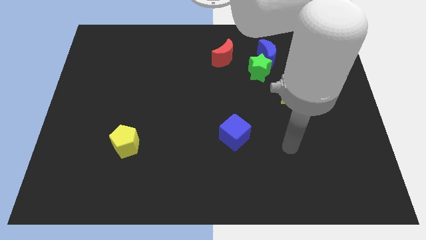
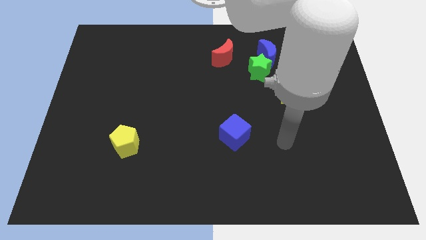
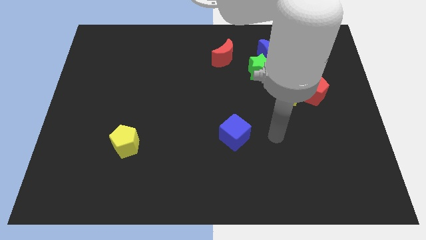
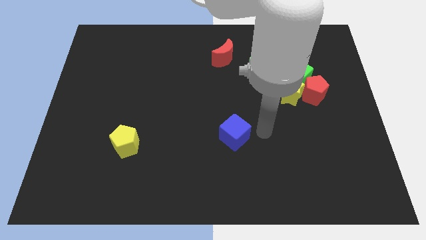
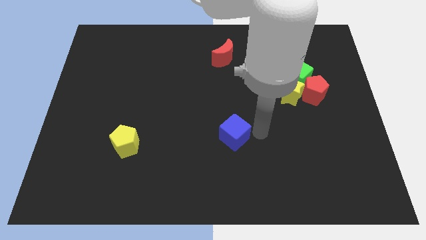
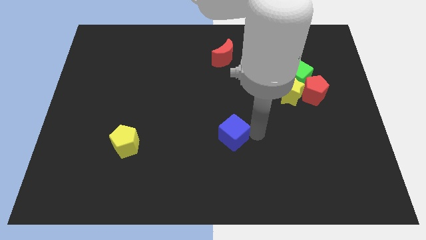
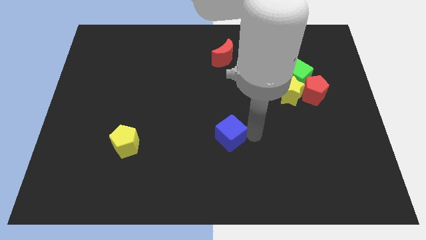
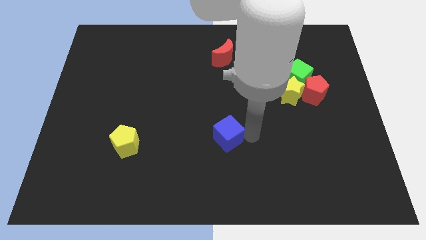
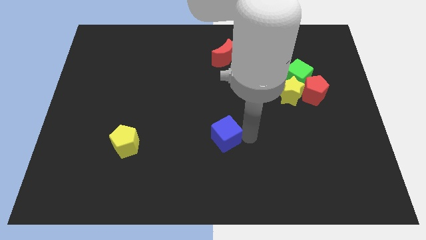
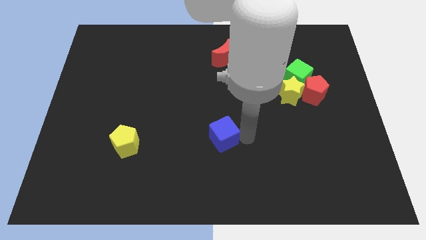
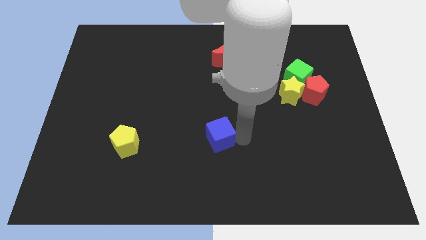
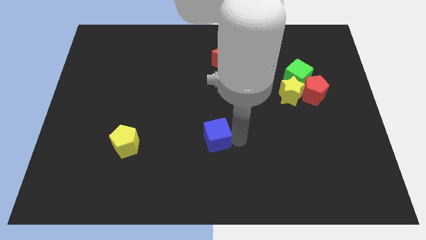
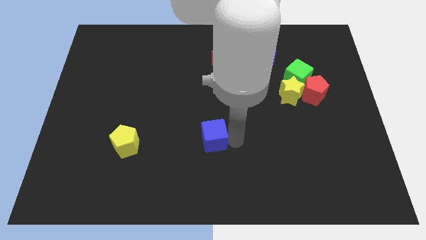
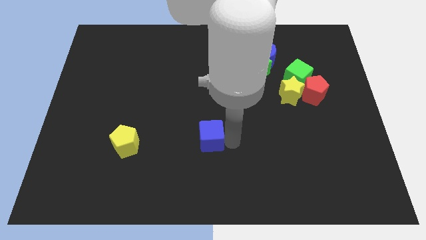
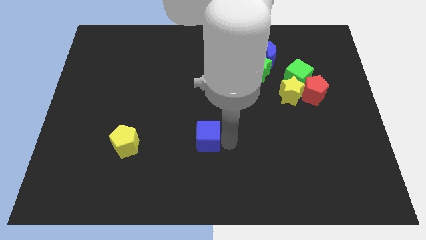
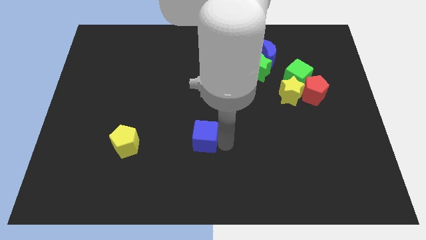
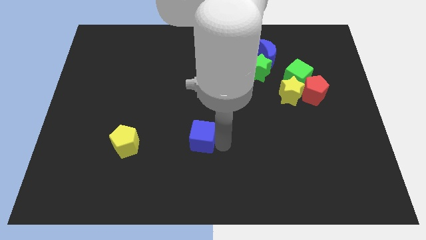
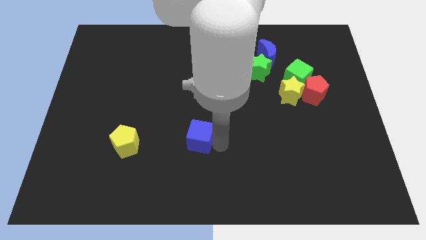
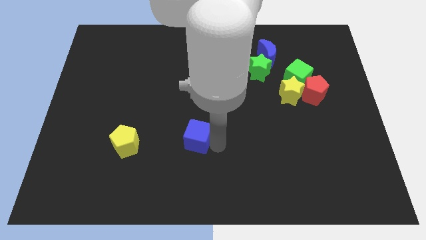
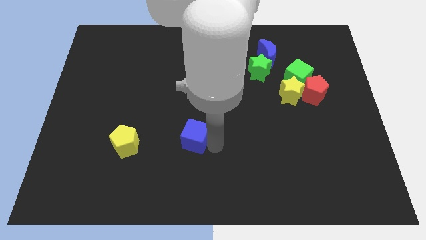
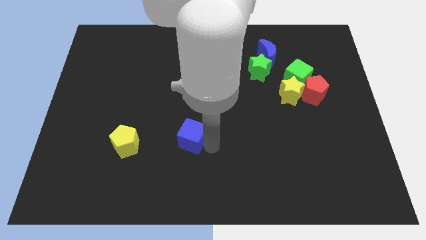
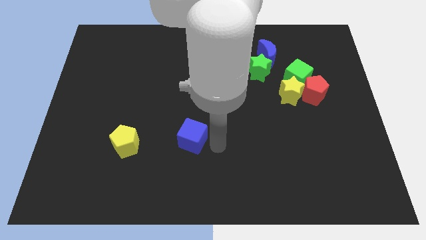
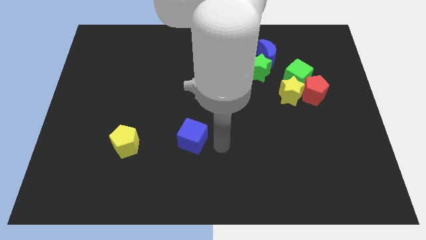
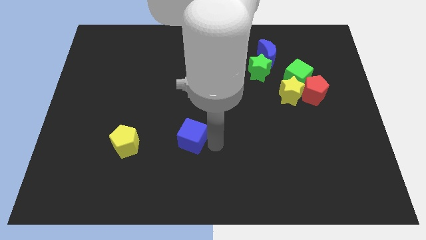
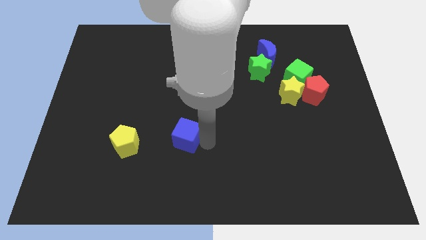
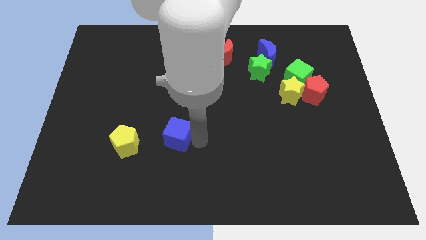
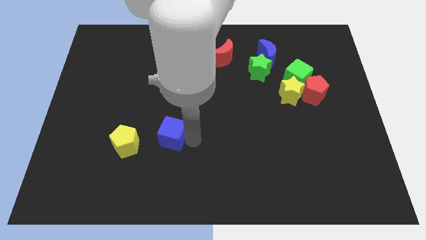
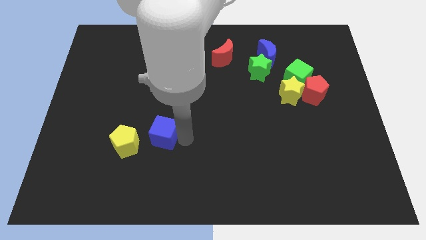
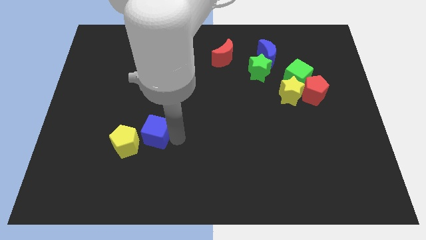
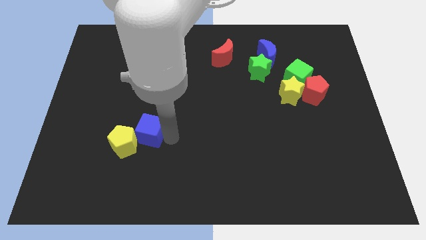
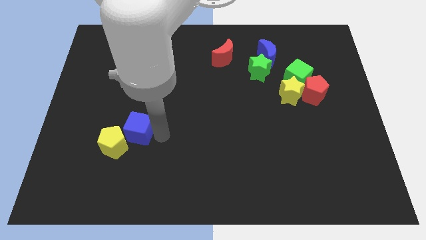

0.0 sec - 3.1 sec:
push the blue cube to the left

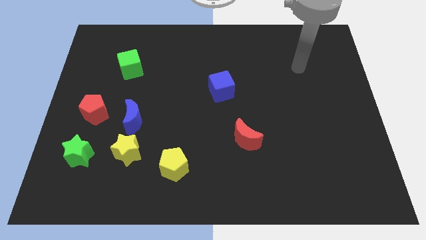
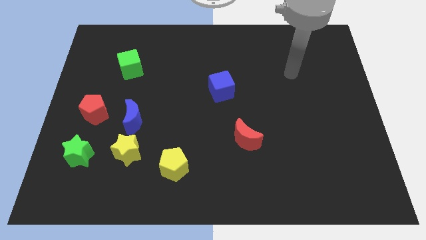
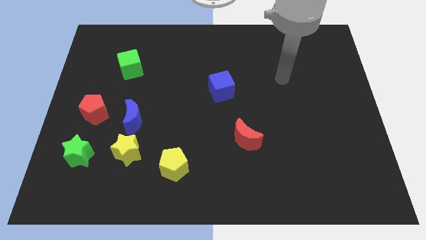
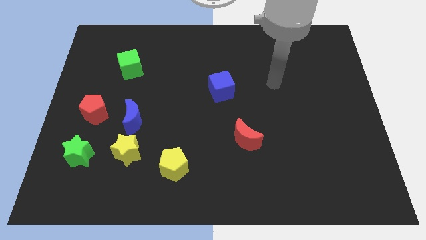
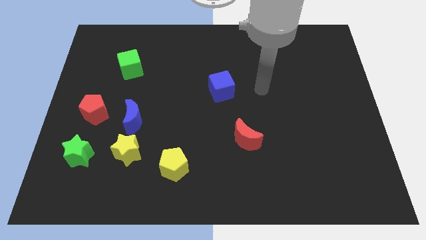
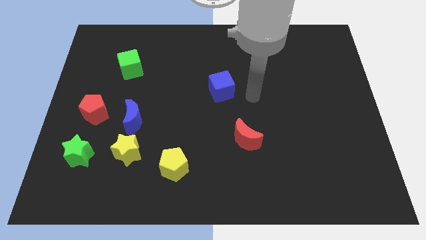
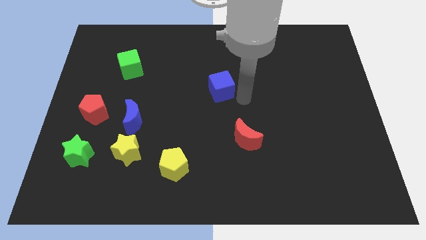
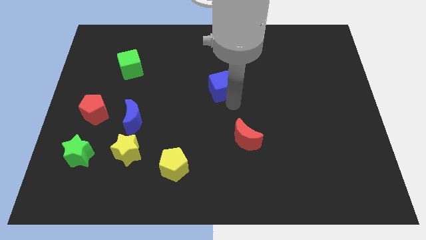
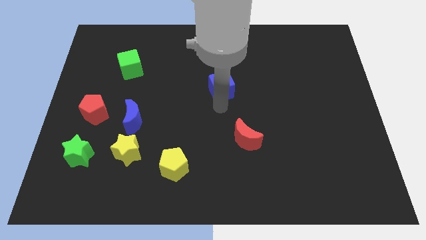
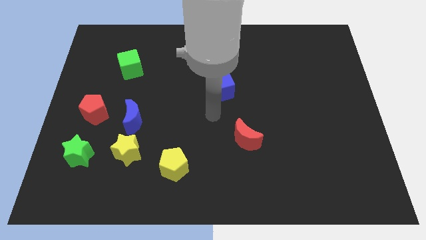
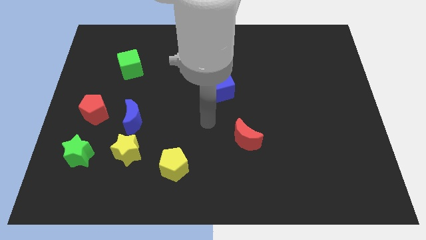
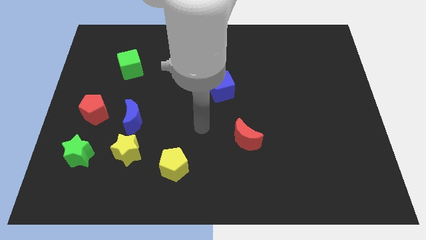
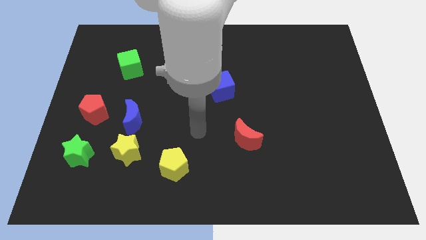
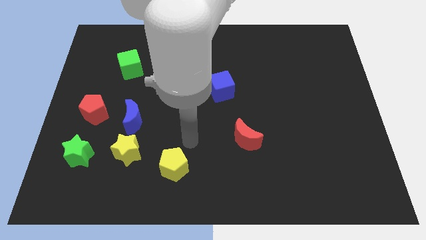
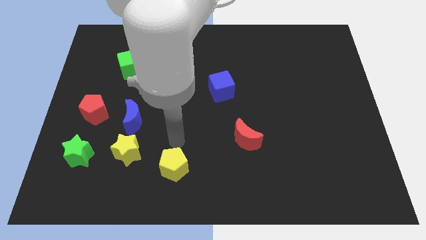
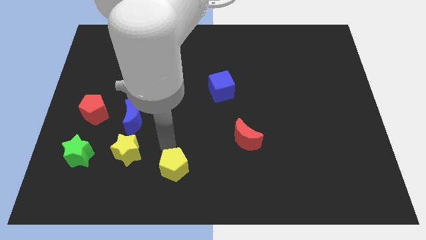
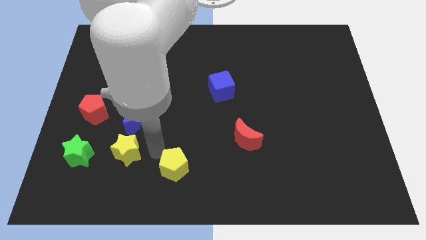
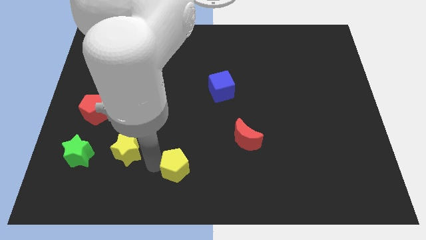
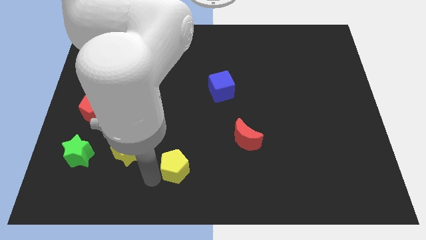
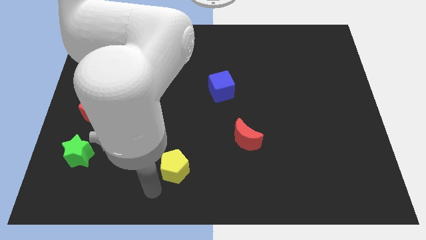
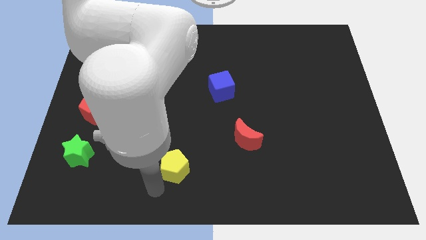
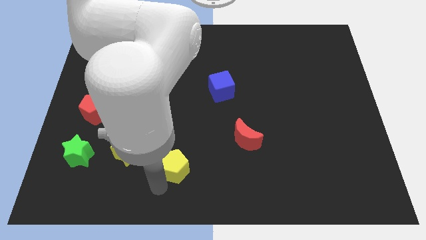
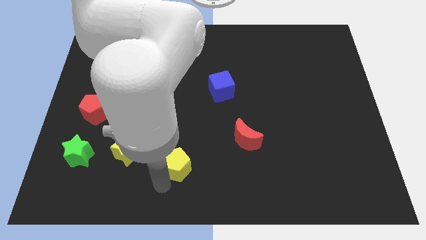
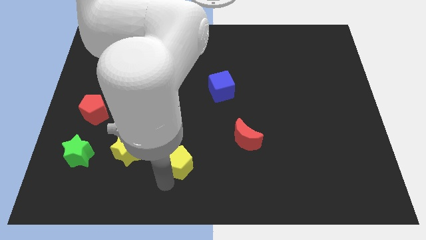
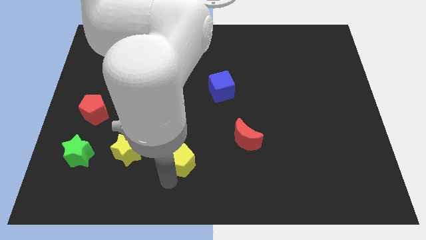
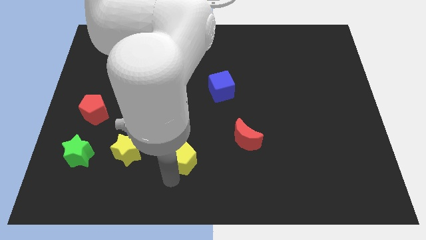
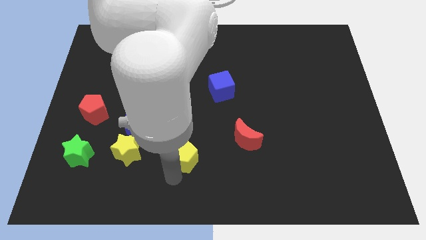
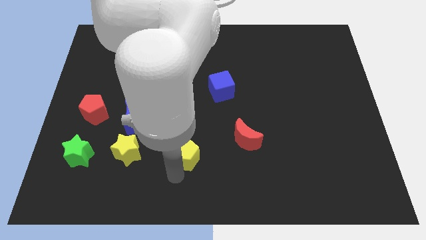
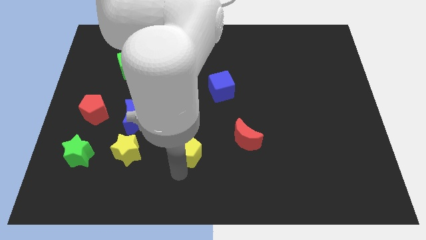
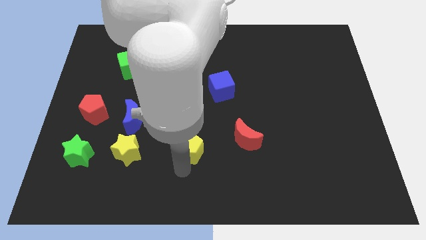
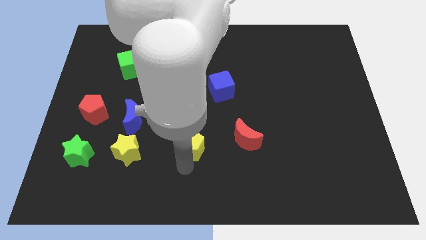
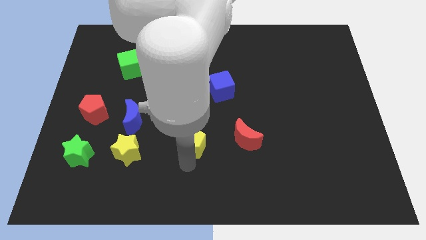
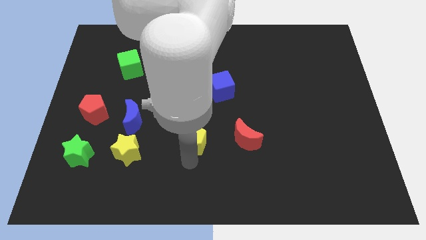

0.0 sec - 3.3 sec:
slightly move the yellow pentagon upwards and then right

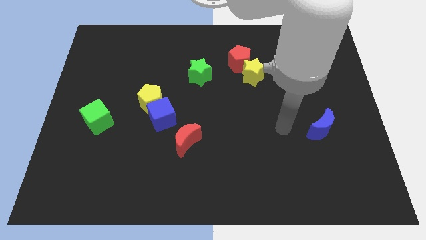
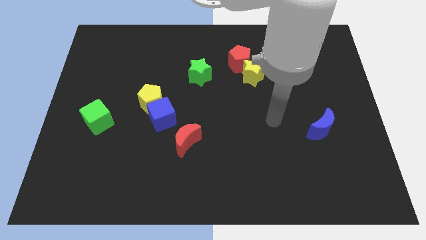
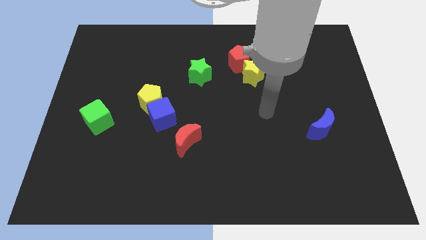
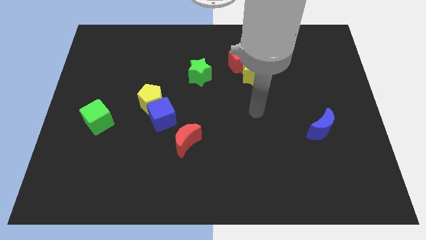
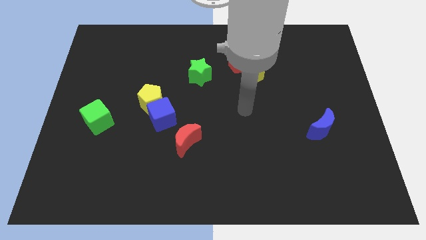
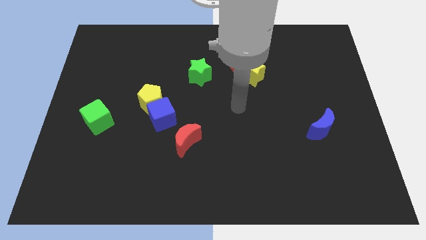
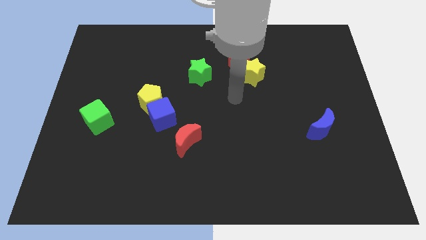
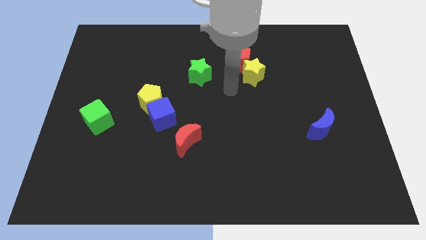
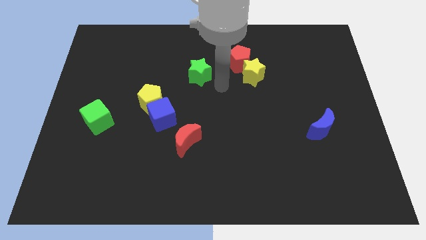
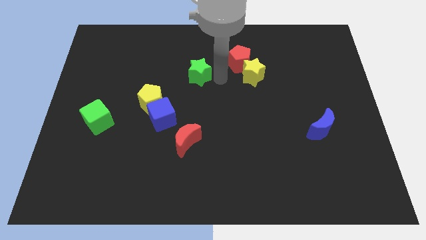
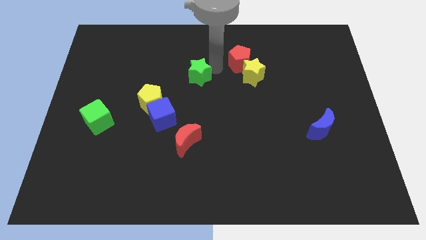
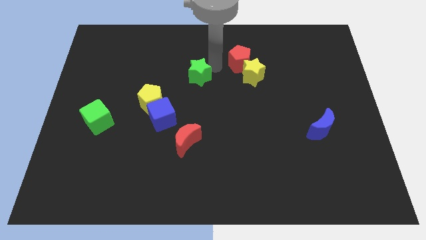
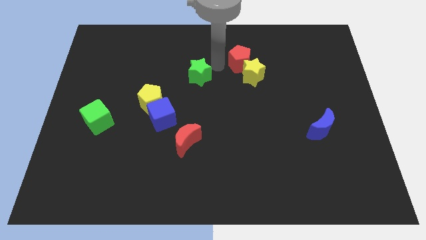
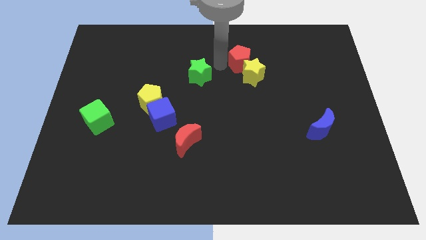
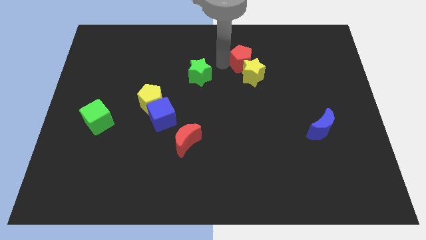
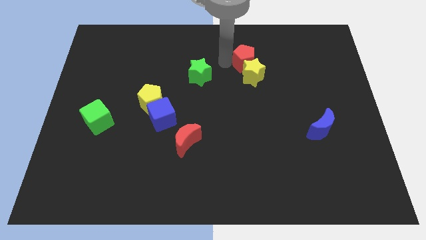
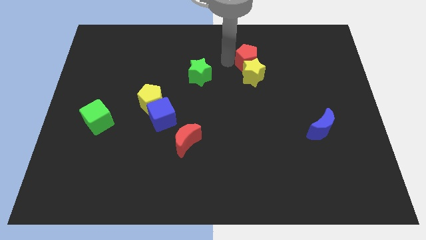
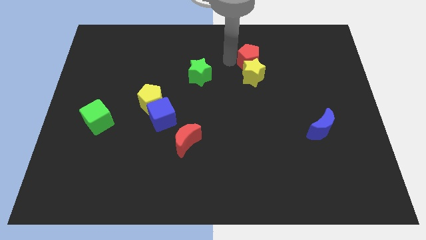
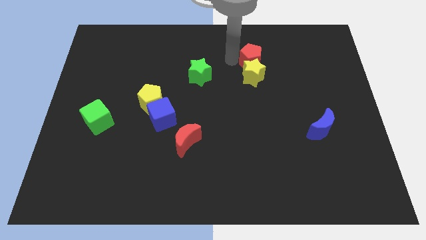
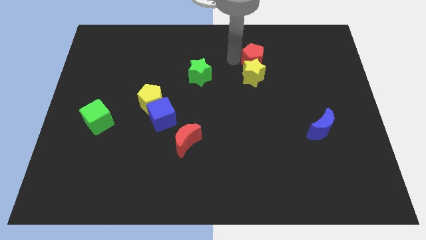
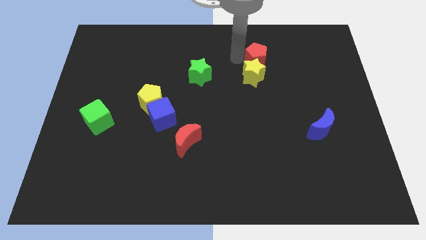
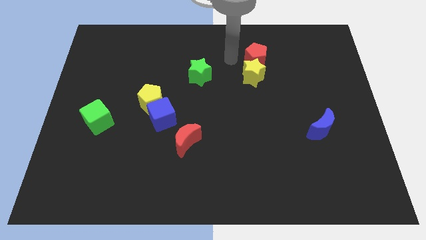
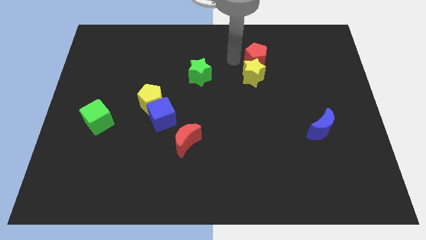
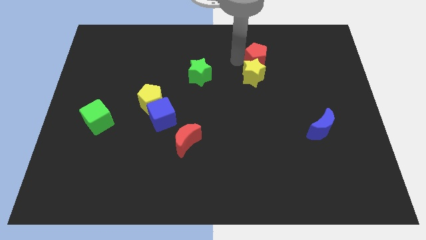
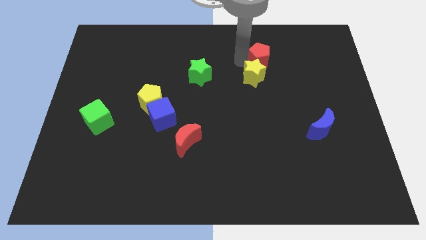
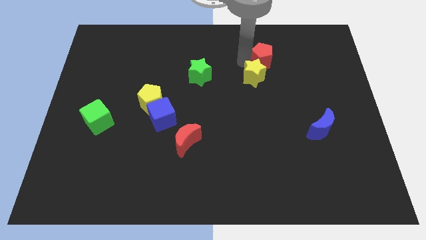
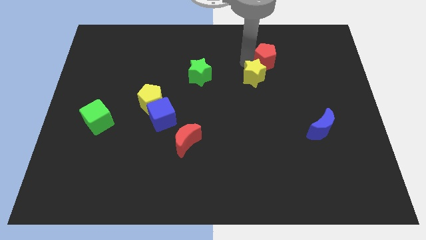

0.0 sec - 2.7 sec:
push the red pentagon right a little
